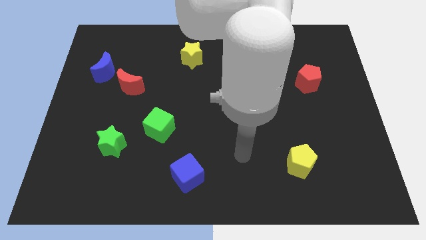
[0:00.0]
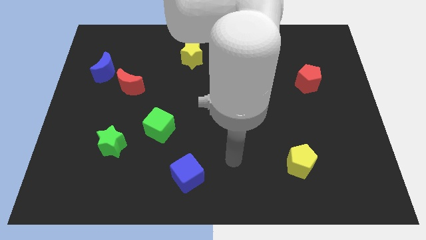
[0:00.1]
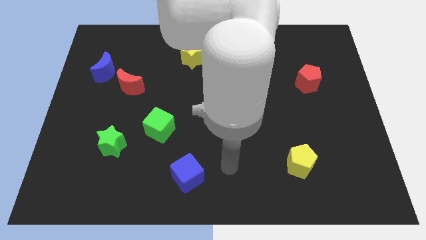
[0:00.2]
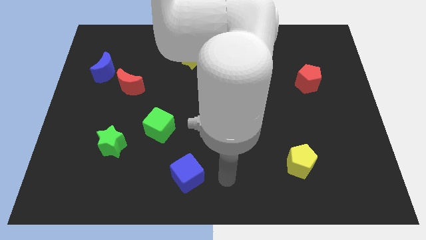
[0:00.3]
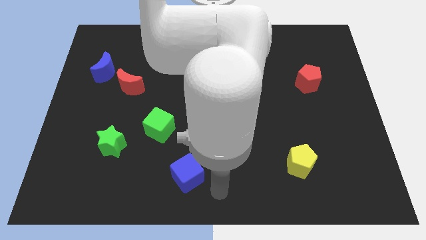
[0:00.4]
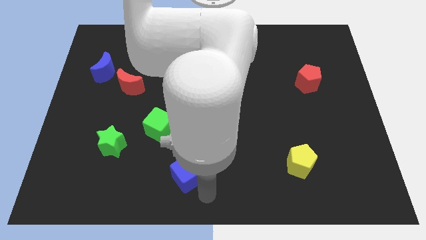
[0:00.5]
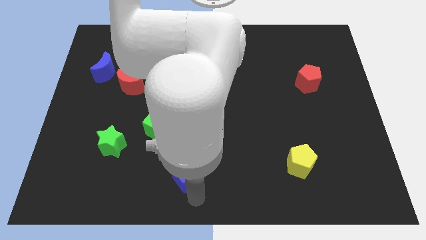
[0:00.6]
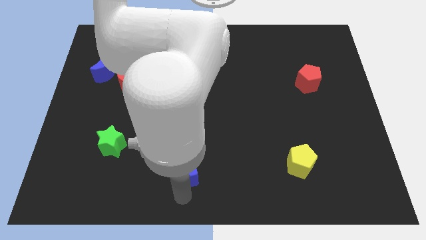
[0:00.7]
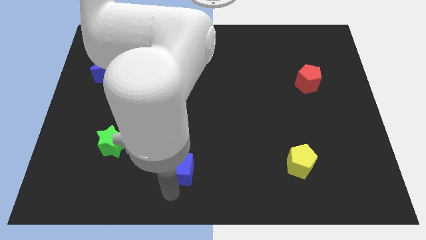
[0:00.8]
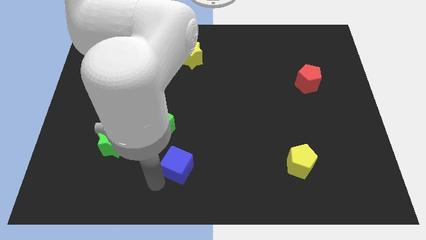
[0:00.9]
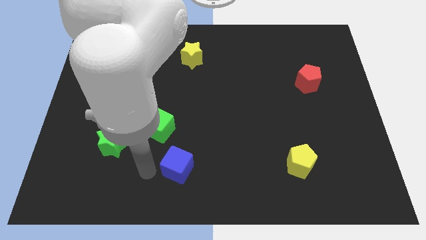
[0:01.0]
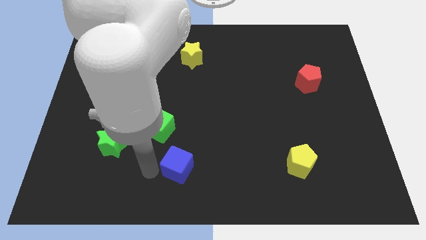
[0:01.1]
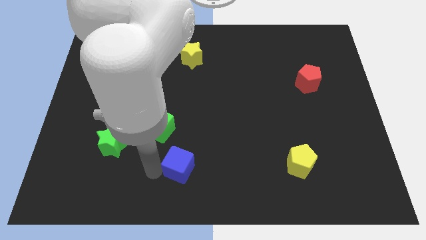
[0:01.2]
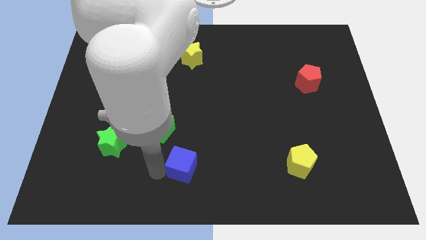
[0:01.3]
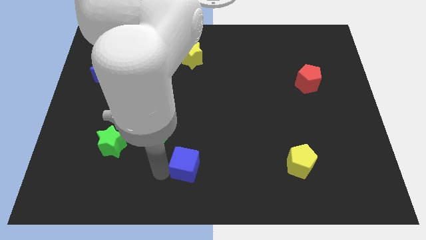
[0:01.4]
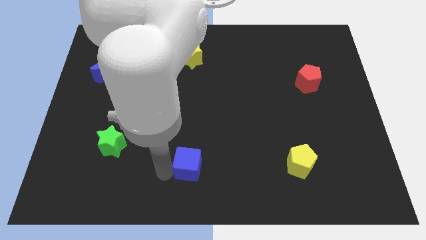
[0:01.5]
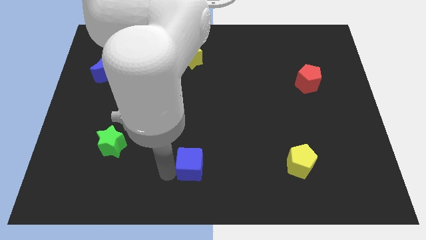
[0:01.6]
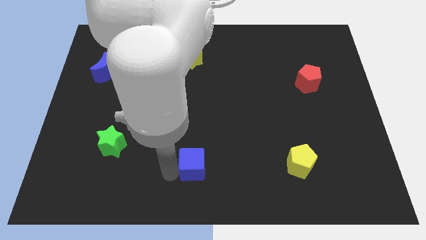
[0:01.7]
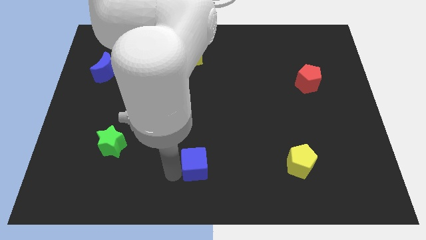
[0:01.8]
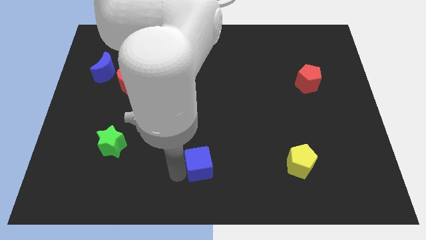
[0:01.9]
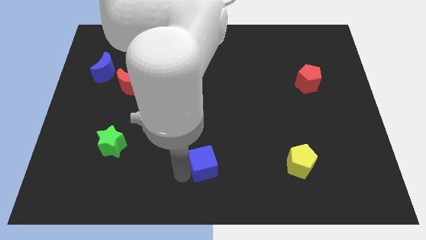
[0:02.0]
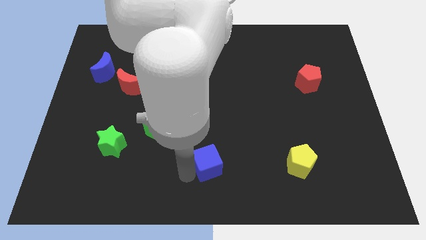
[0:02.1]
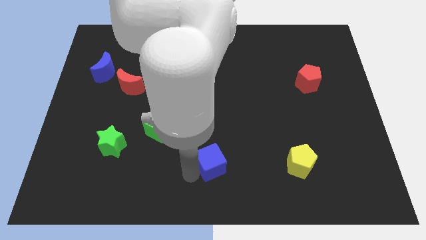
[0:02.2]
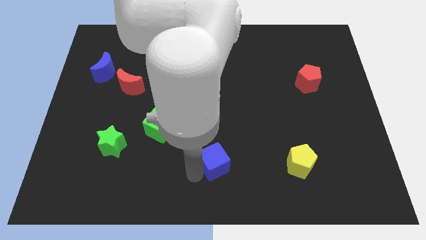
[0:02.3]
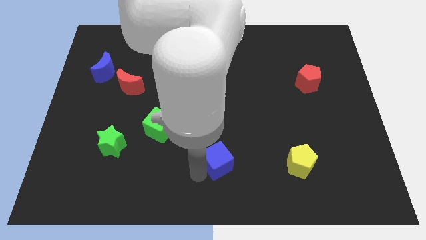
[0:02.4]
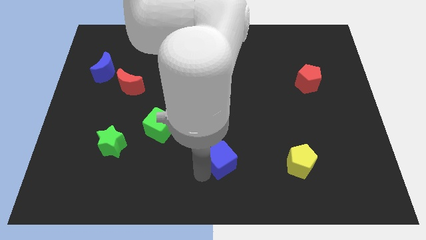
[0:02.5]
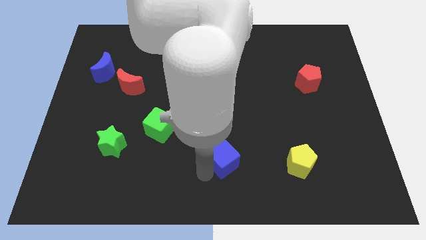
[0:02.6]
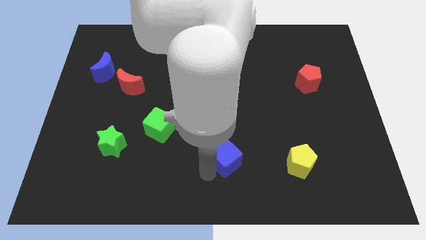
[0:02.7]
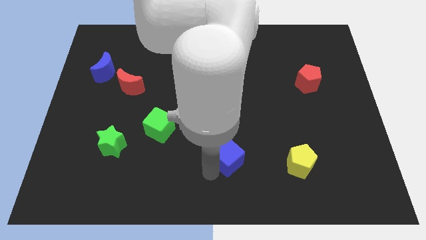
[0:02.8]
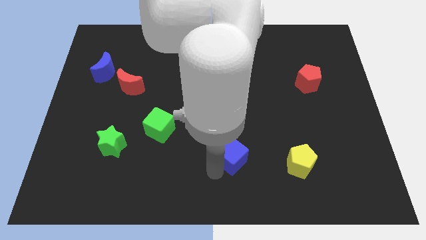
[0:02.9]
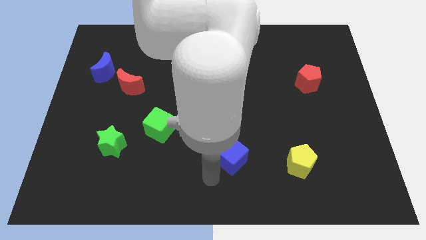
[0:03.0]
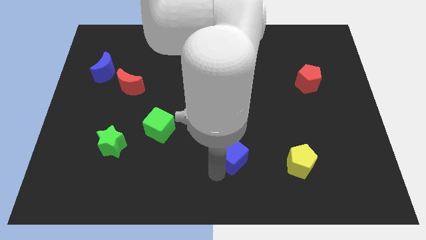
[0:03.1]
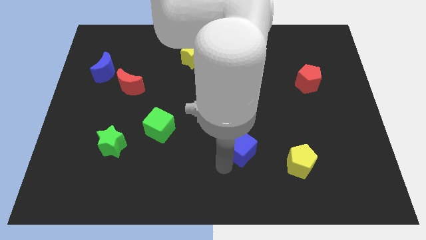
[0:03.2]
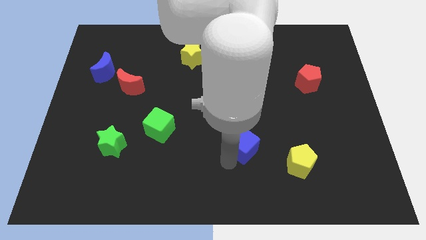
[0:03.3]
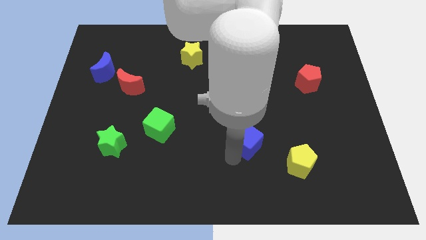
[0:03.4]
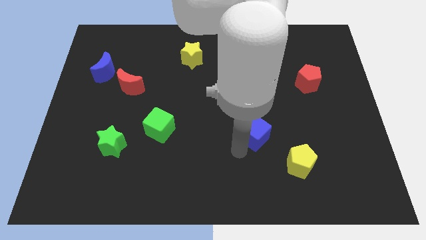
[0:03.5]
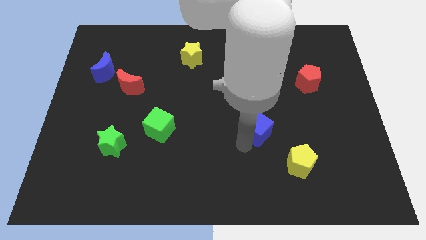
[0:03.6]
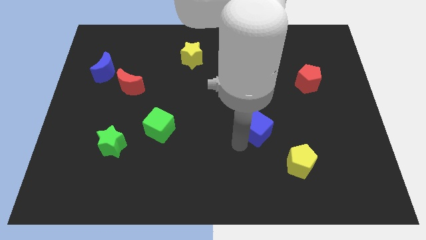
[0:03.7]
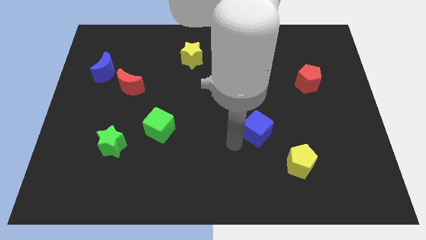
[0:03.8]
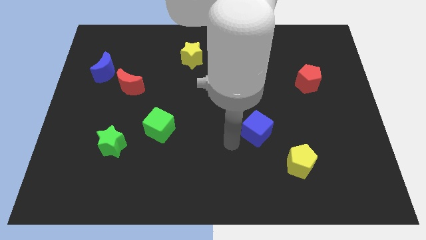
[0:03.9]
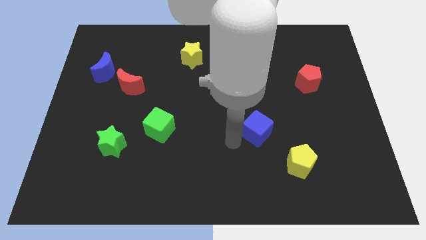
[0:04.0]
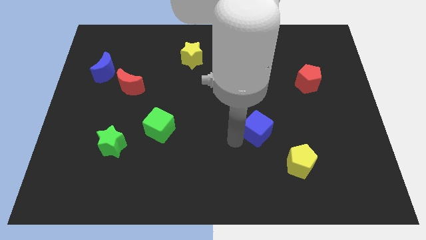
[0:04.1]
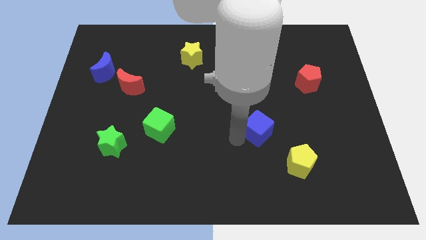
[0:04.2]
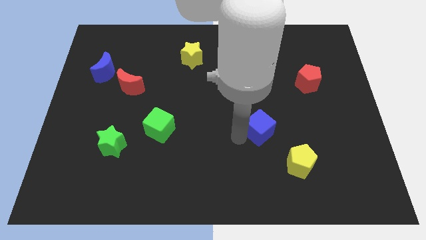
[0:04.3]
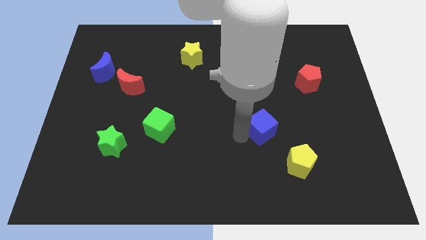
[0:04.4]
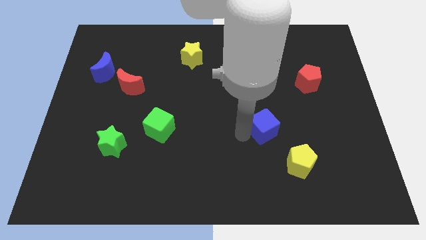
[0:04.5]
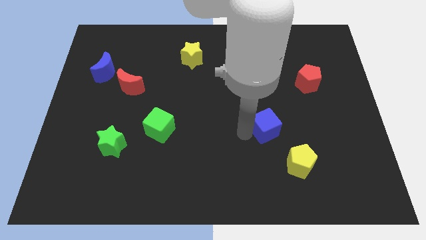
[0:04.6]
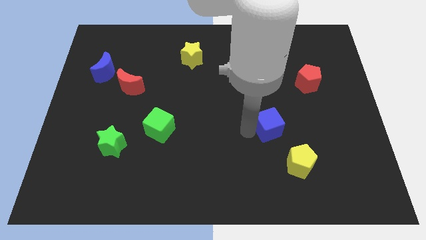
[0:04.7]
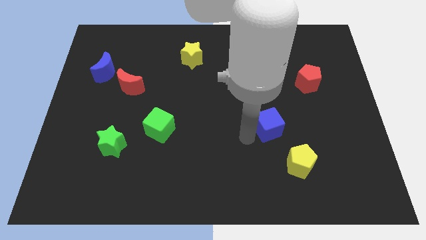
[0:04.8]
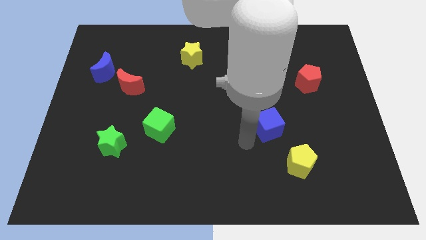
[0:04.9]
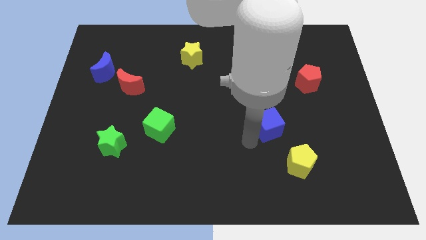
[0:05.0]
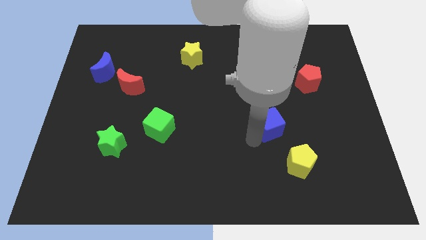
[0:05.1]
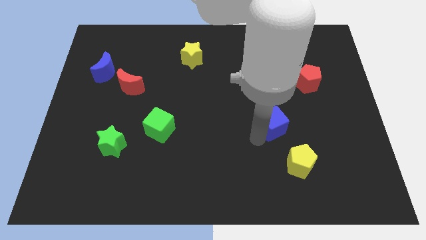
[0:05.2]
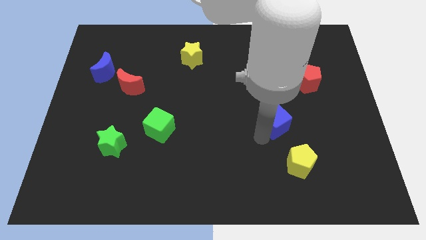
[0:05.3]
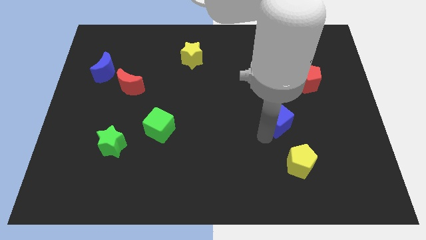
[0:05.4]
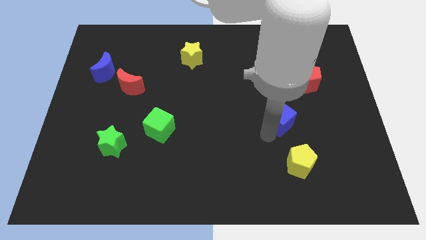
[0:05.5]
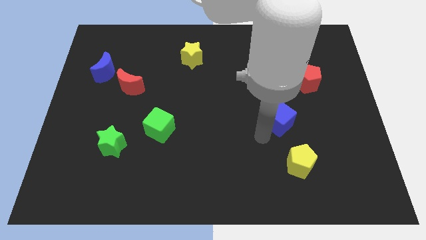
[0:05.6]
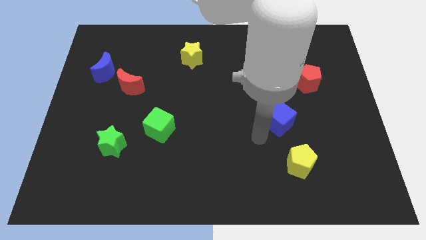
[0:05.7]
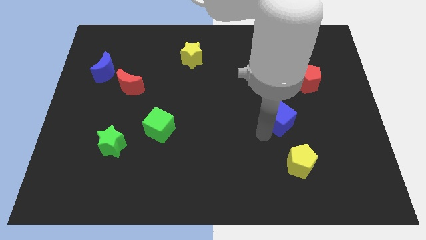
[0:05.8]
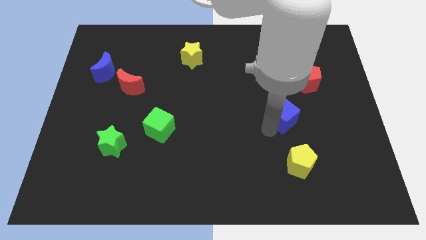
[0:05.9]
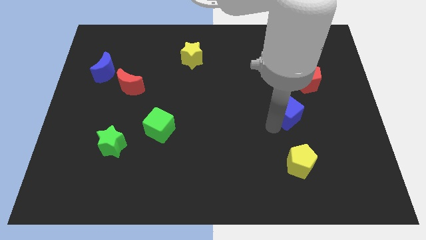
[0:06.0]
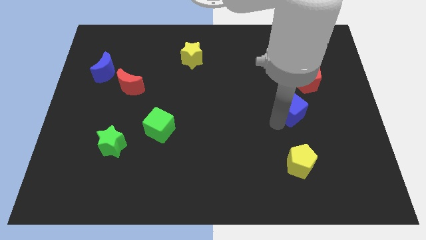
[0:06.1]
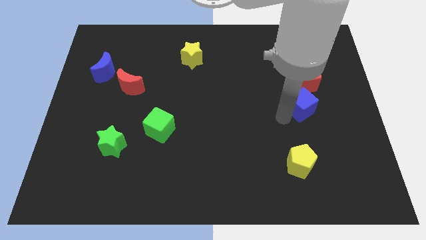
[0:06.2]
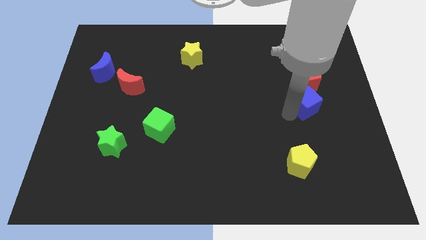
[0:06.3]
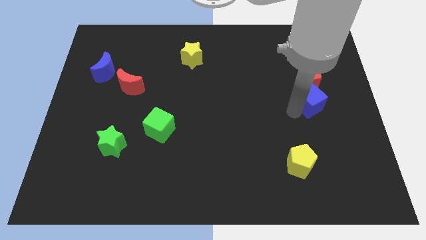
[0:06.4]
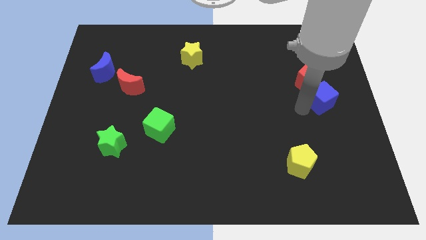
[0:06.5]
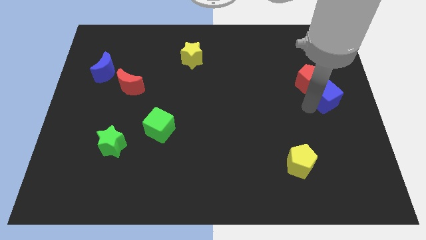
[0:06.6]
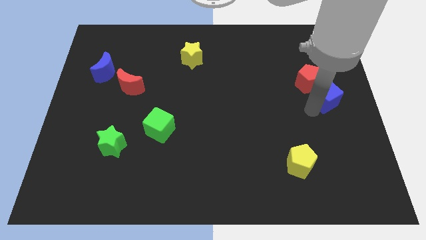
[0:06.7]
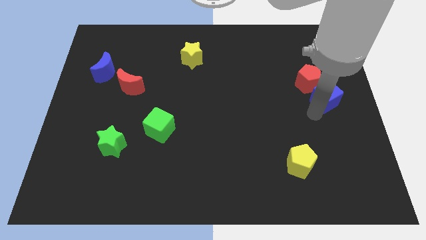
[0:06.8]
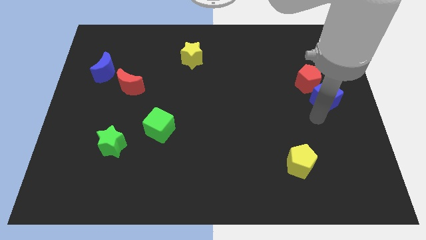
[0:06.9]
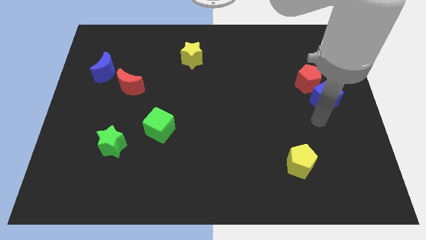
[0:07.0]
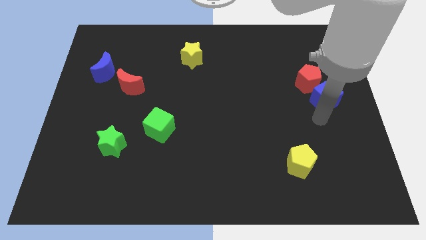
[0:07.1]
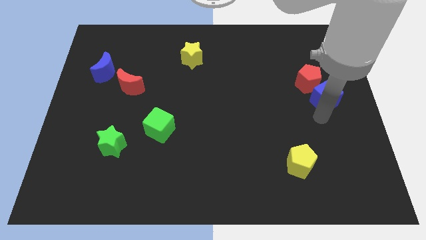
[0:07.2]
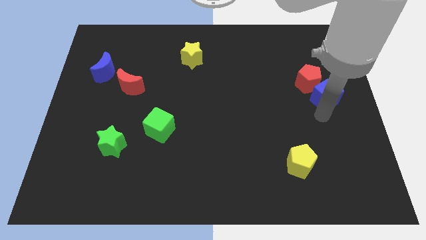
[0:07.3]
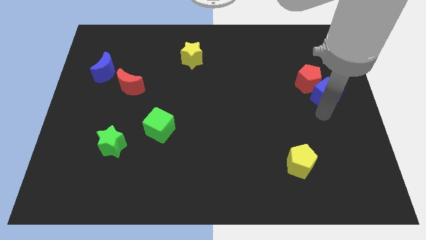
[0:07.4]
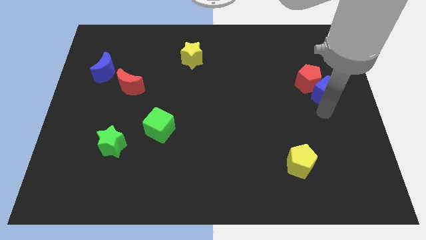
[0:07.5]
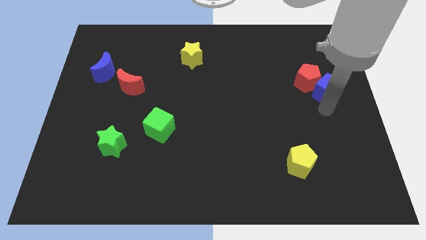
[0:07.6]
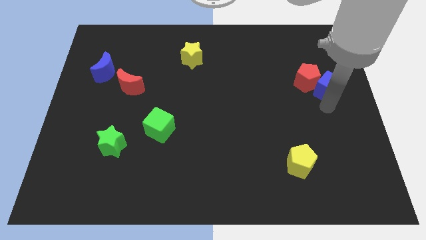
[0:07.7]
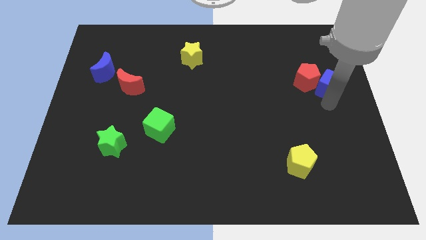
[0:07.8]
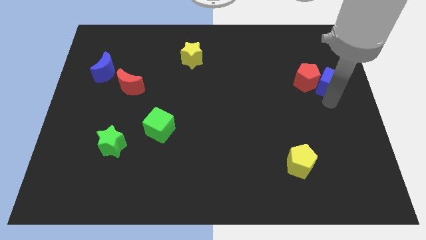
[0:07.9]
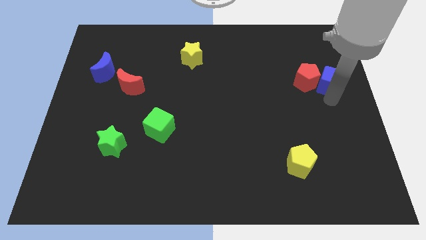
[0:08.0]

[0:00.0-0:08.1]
put the blue cube to the top right side of the red pentagon
